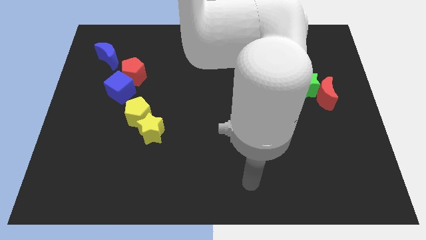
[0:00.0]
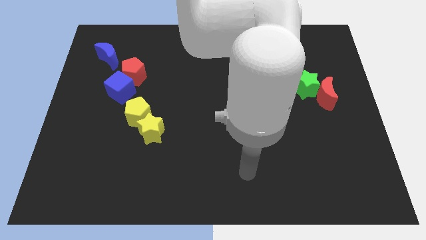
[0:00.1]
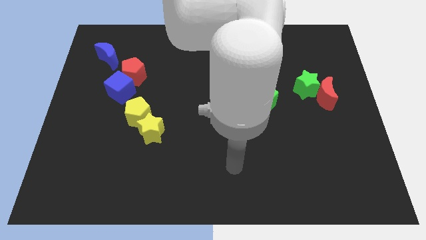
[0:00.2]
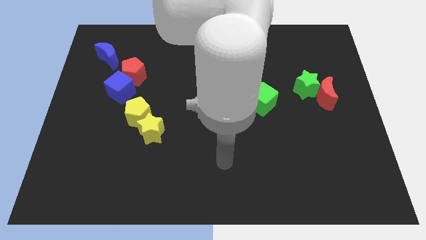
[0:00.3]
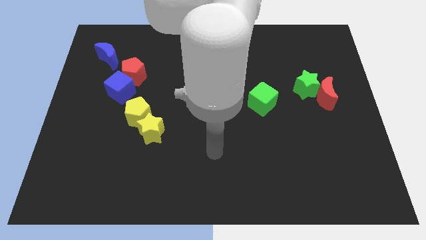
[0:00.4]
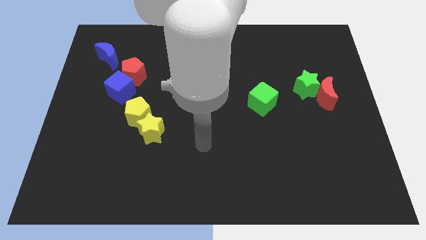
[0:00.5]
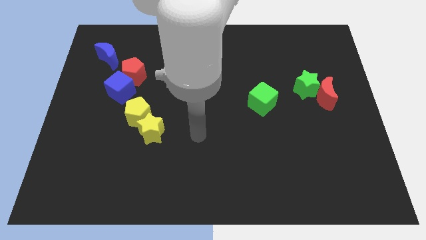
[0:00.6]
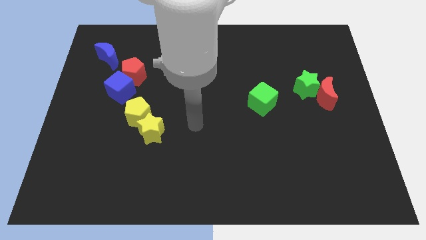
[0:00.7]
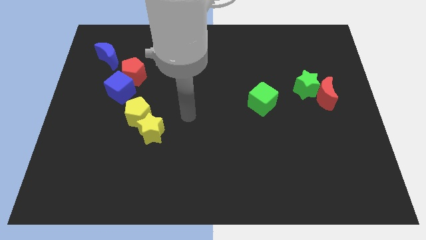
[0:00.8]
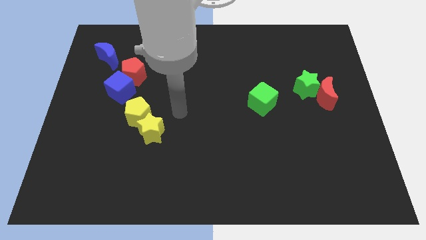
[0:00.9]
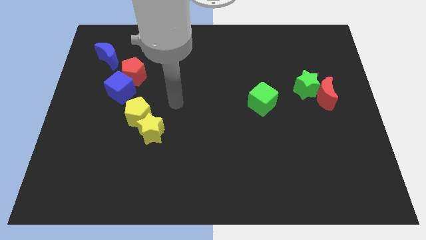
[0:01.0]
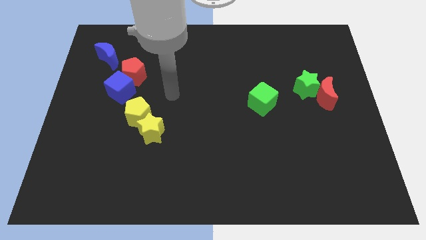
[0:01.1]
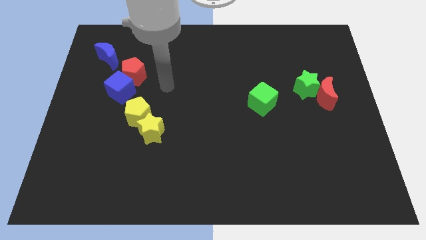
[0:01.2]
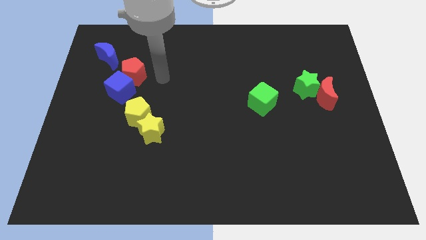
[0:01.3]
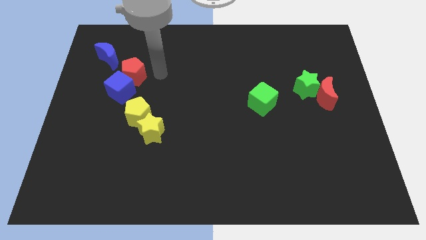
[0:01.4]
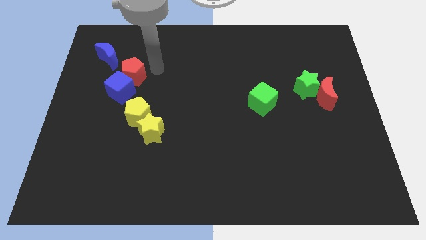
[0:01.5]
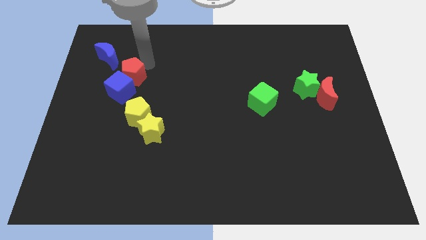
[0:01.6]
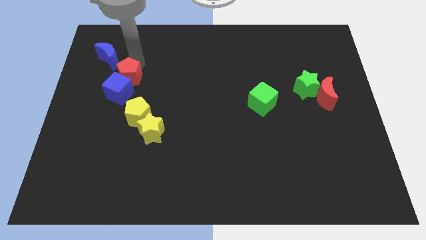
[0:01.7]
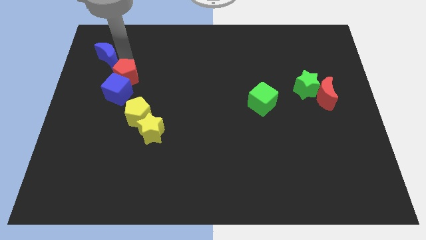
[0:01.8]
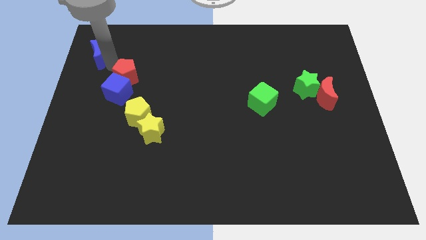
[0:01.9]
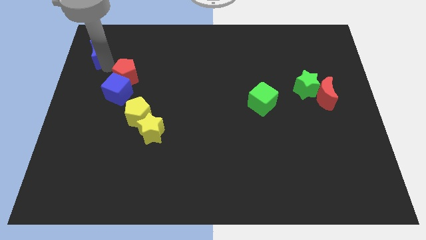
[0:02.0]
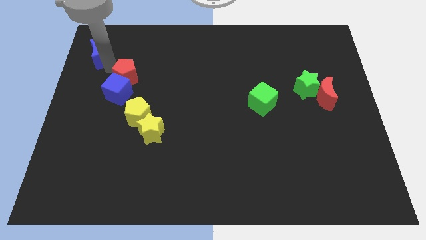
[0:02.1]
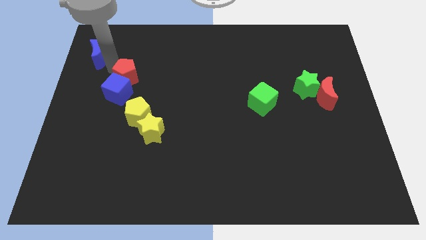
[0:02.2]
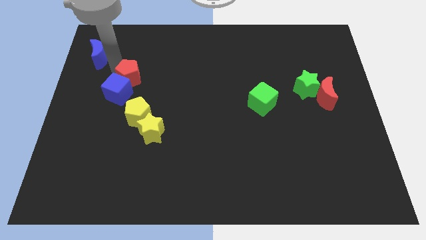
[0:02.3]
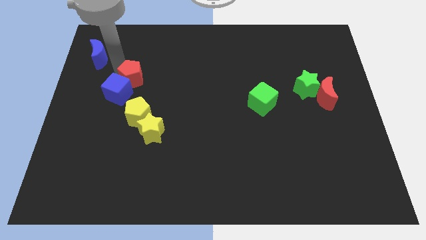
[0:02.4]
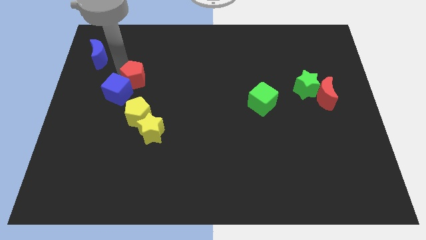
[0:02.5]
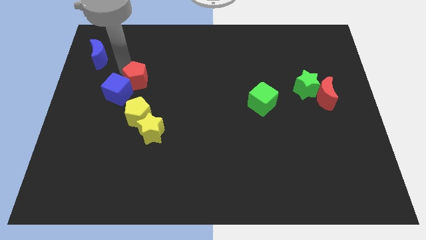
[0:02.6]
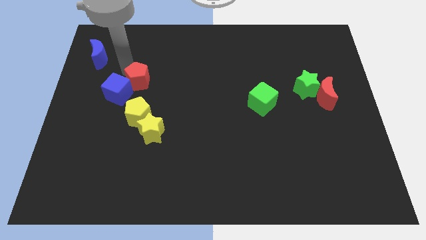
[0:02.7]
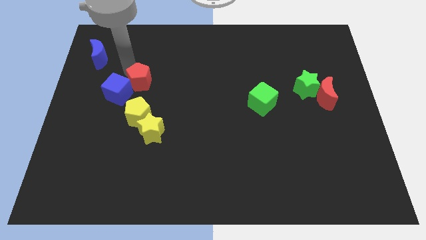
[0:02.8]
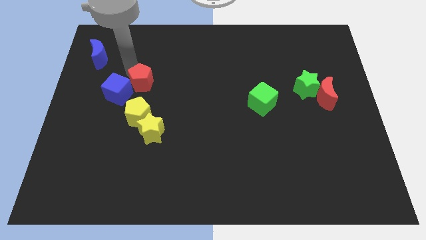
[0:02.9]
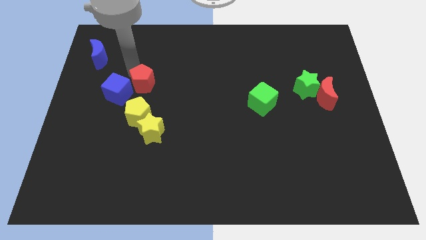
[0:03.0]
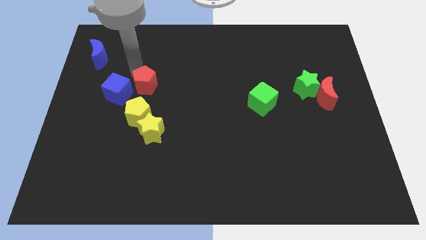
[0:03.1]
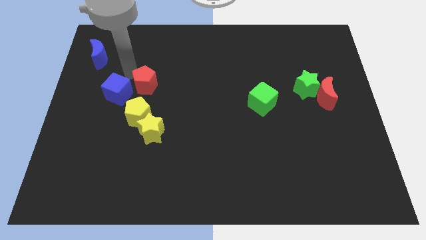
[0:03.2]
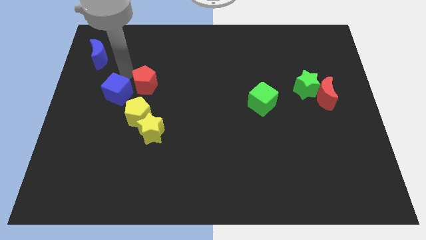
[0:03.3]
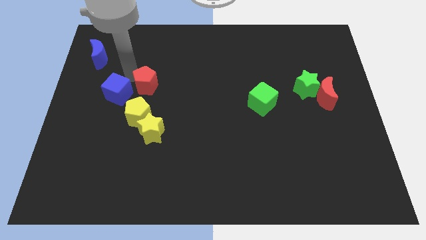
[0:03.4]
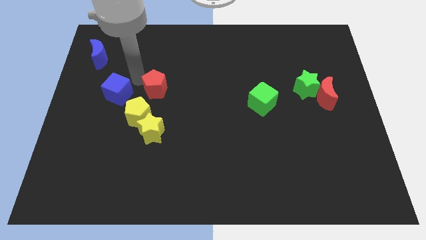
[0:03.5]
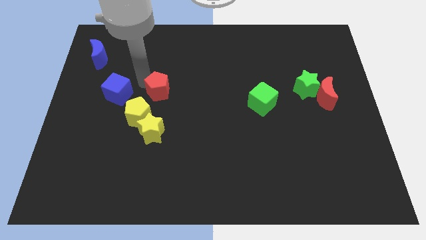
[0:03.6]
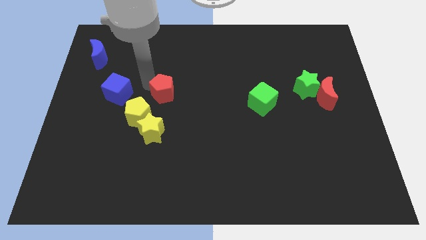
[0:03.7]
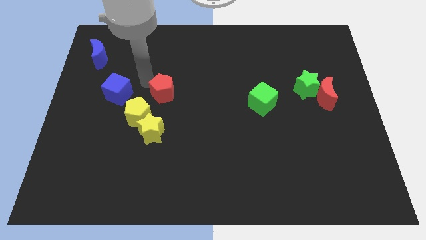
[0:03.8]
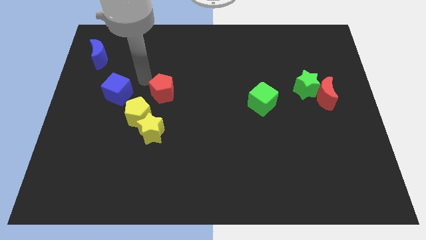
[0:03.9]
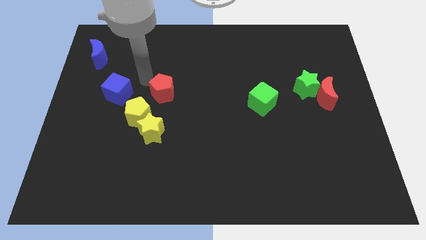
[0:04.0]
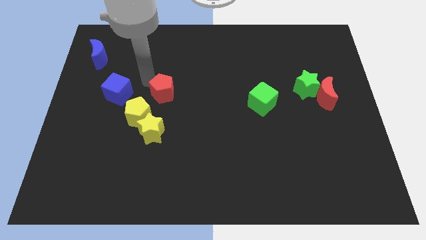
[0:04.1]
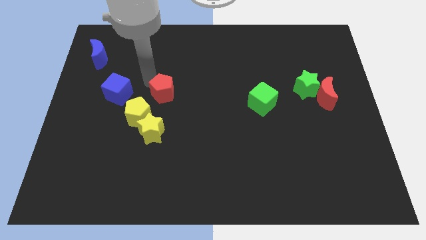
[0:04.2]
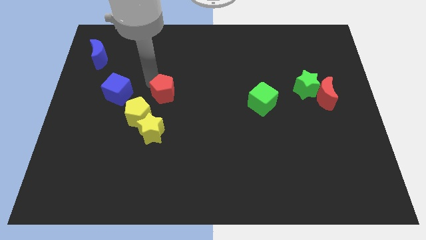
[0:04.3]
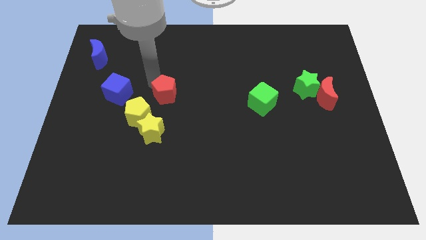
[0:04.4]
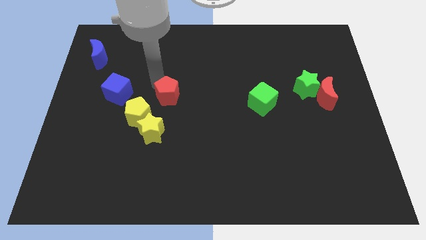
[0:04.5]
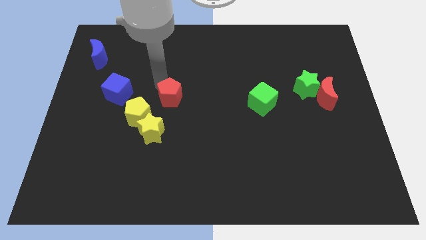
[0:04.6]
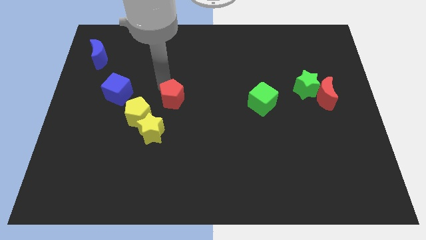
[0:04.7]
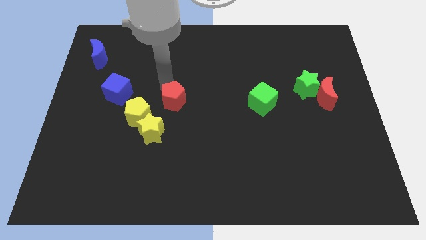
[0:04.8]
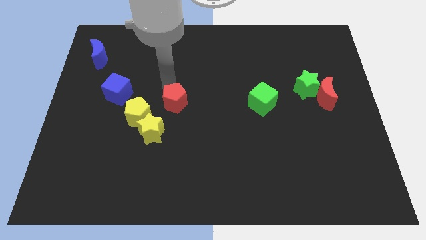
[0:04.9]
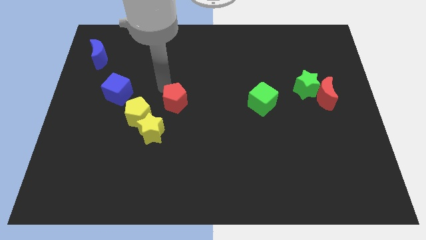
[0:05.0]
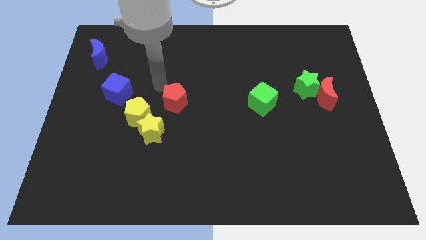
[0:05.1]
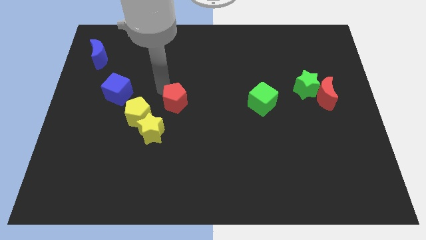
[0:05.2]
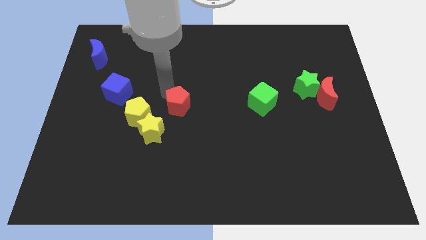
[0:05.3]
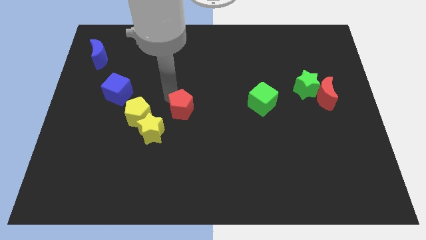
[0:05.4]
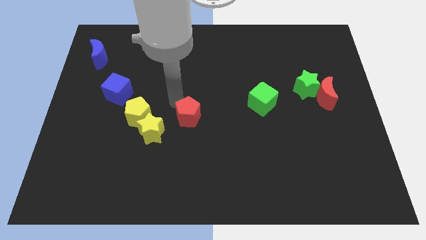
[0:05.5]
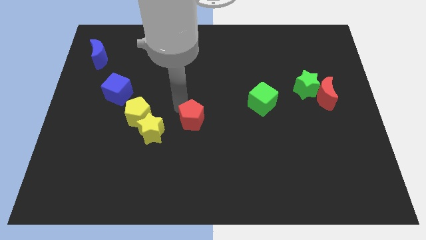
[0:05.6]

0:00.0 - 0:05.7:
slide the red pentagon downwards and to the right

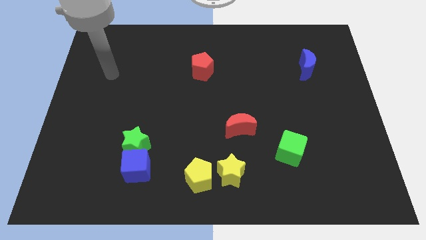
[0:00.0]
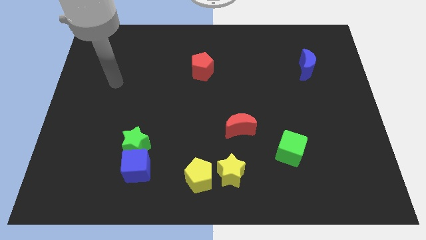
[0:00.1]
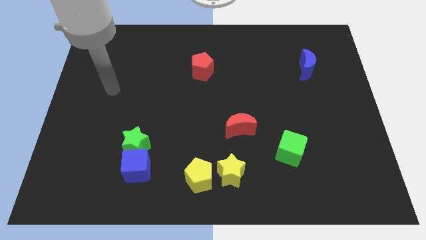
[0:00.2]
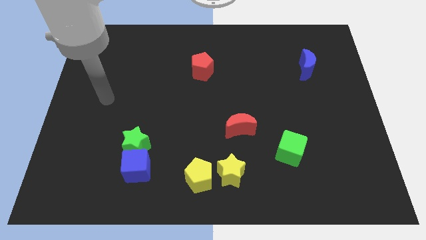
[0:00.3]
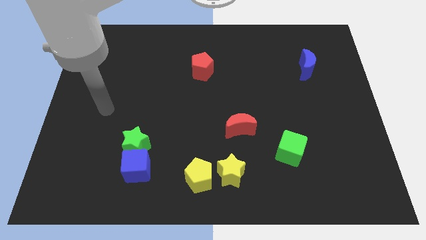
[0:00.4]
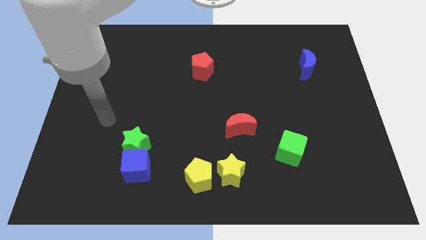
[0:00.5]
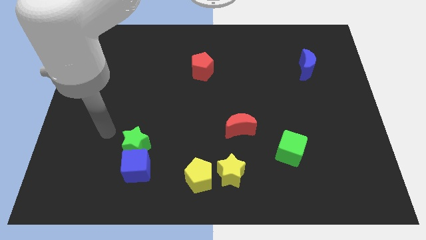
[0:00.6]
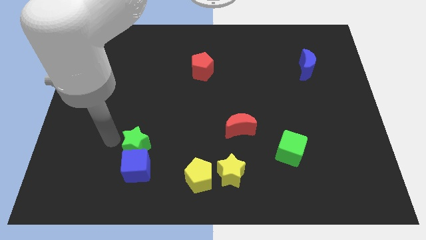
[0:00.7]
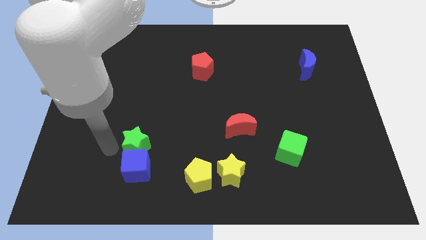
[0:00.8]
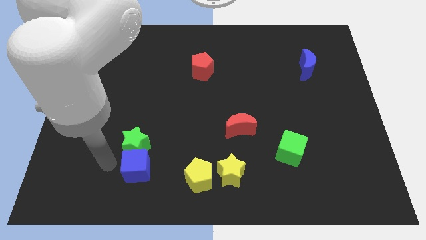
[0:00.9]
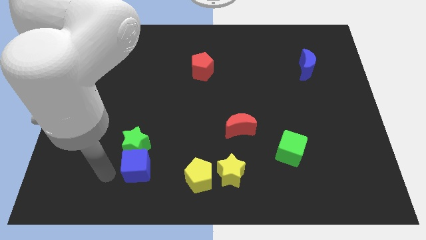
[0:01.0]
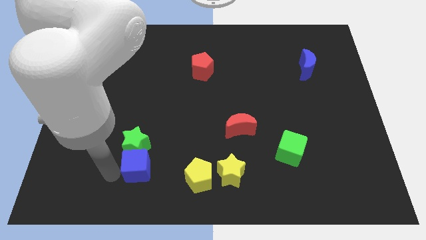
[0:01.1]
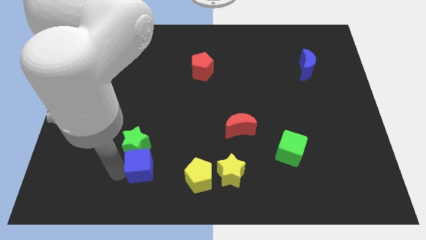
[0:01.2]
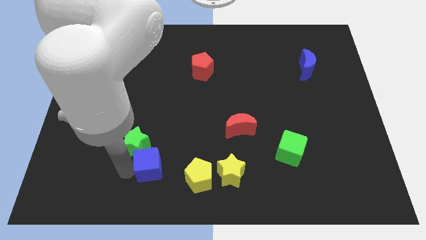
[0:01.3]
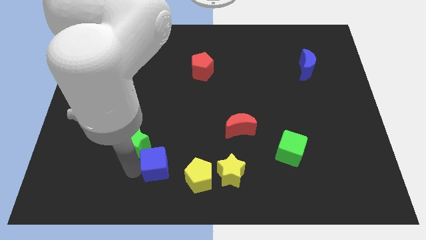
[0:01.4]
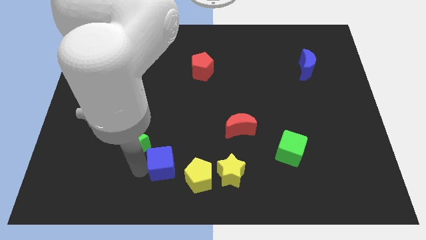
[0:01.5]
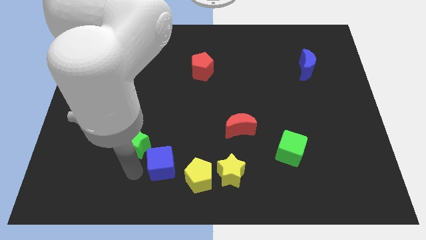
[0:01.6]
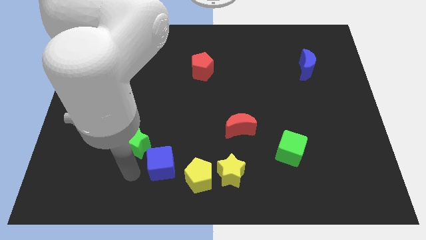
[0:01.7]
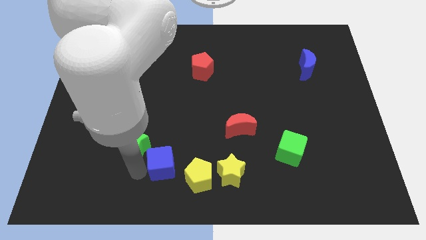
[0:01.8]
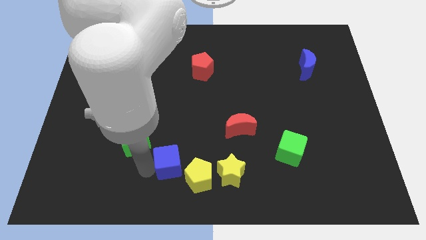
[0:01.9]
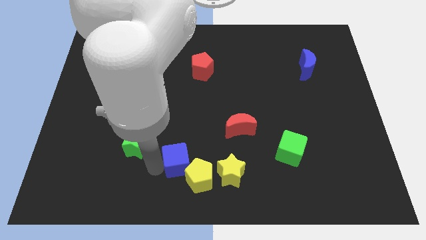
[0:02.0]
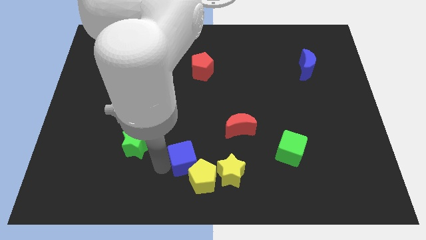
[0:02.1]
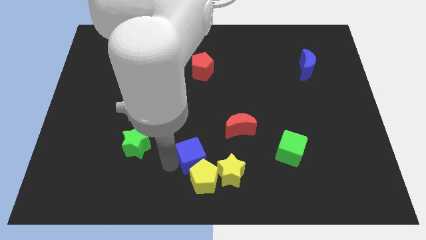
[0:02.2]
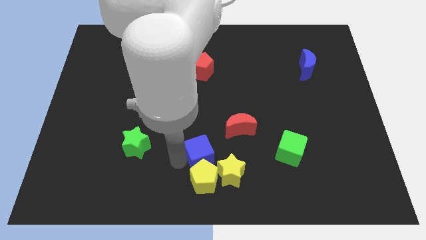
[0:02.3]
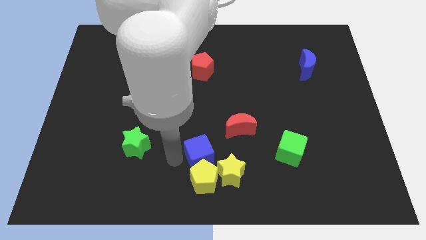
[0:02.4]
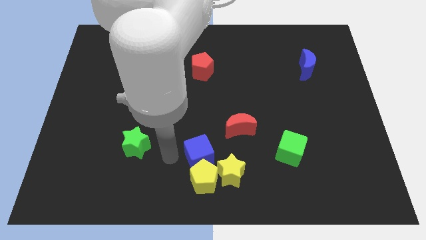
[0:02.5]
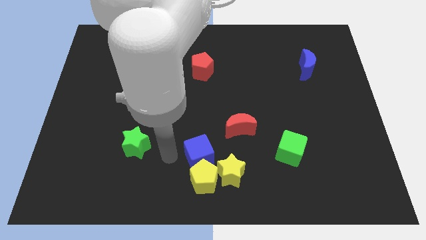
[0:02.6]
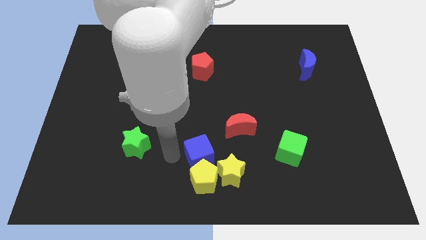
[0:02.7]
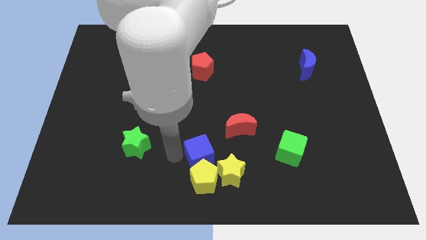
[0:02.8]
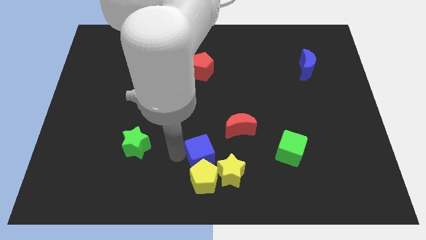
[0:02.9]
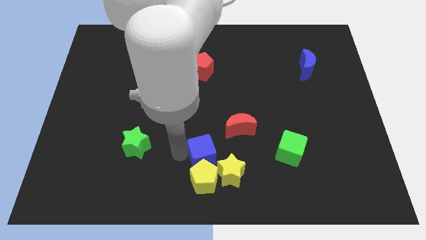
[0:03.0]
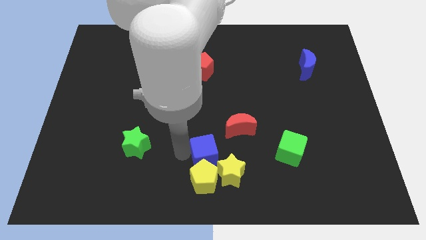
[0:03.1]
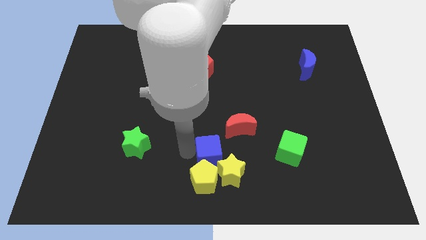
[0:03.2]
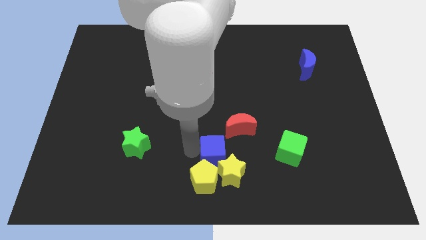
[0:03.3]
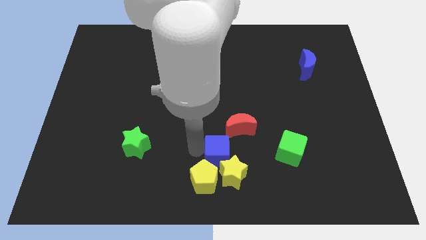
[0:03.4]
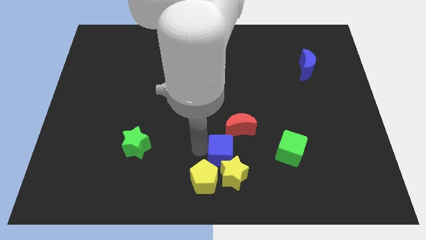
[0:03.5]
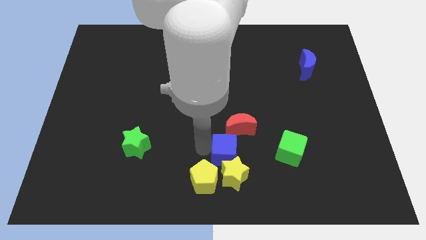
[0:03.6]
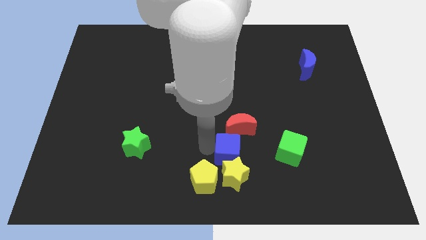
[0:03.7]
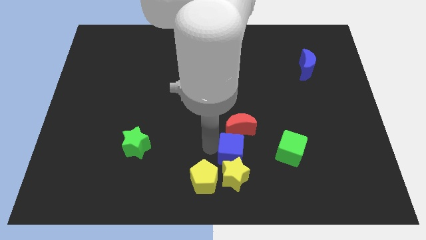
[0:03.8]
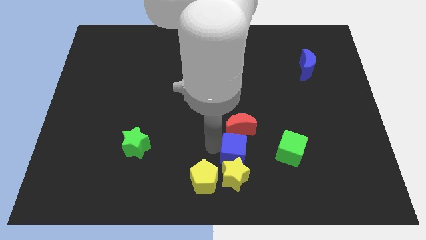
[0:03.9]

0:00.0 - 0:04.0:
push the blue cube to the right
